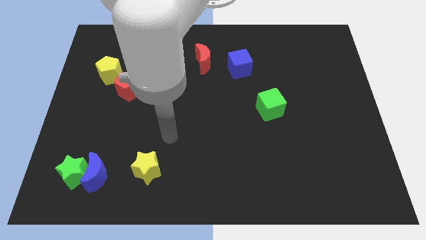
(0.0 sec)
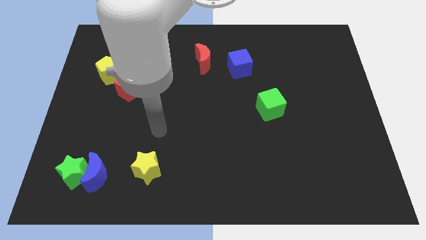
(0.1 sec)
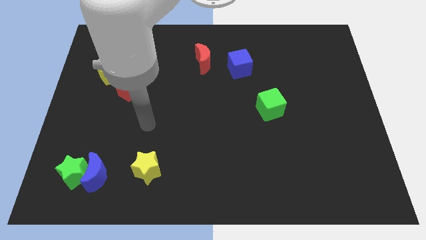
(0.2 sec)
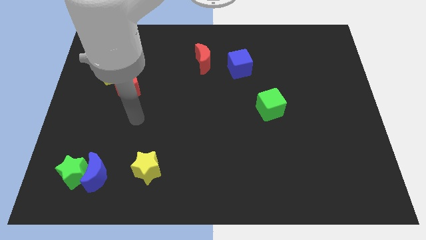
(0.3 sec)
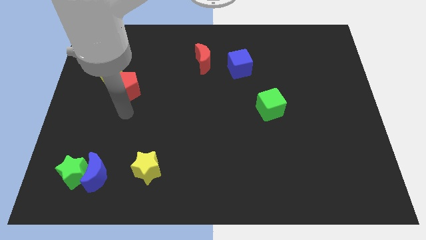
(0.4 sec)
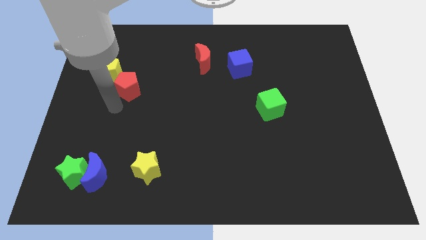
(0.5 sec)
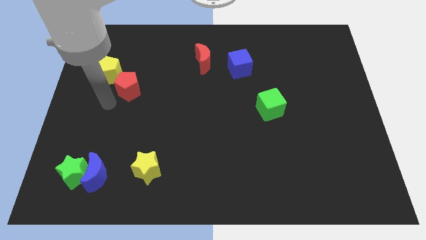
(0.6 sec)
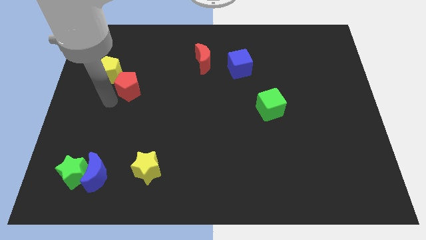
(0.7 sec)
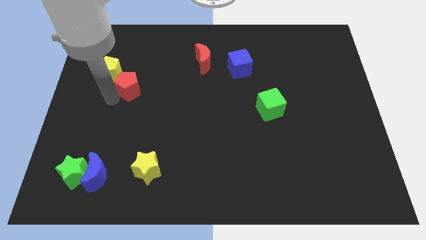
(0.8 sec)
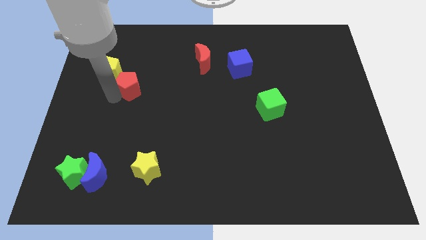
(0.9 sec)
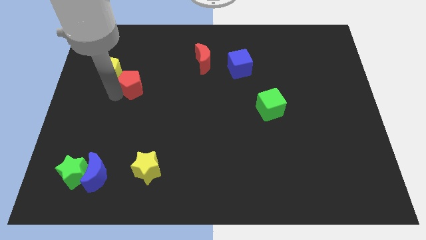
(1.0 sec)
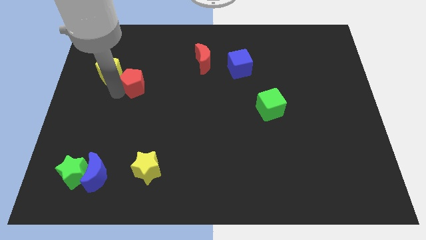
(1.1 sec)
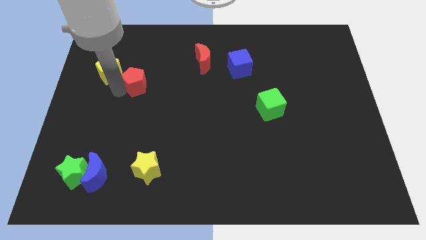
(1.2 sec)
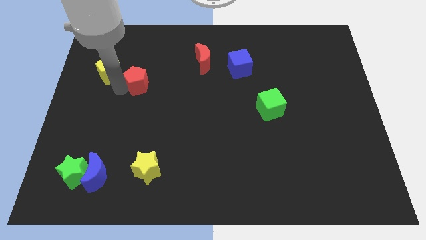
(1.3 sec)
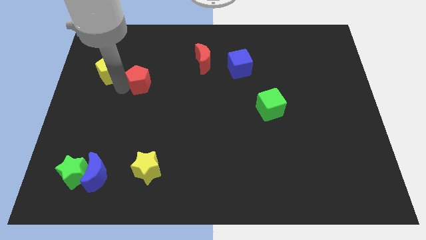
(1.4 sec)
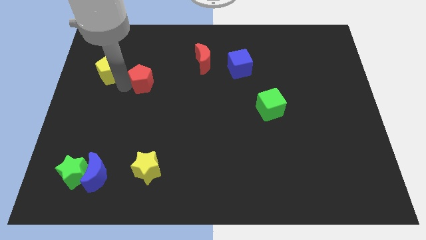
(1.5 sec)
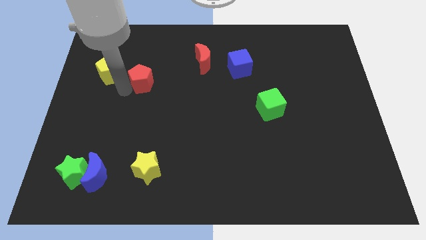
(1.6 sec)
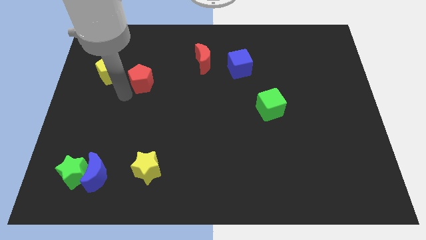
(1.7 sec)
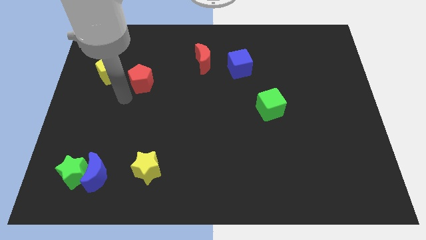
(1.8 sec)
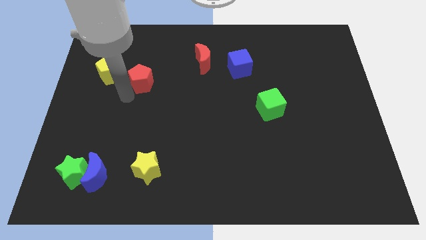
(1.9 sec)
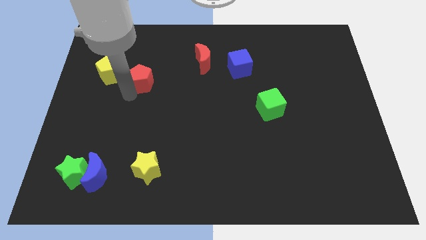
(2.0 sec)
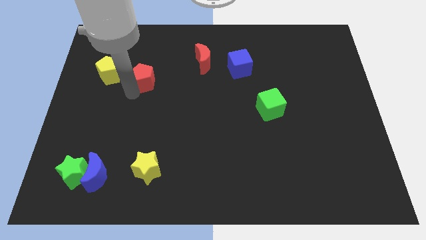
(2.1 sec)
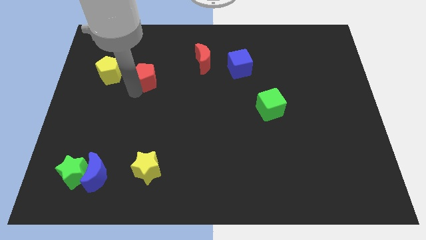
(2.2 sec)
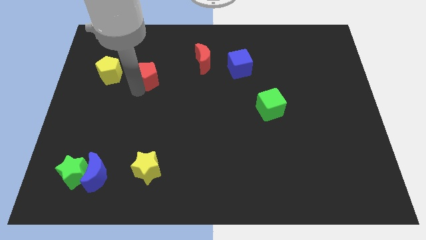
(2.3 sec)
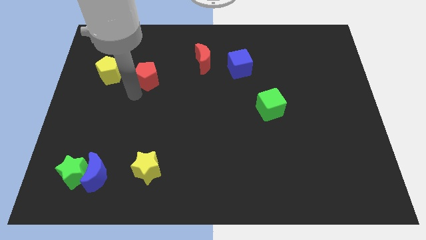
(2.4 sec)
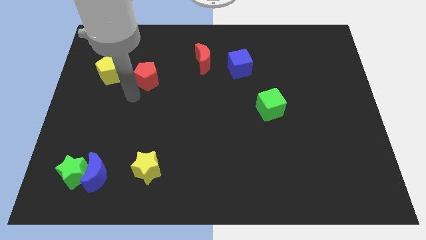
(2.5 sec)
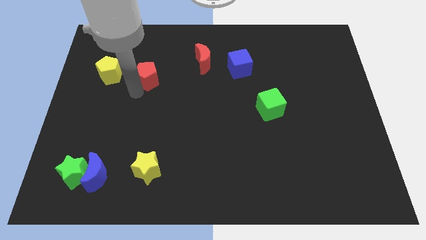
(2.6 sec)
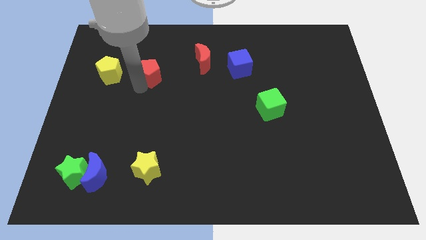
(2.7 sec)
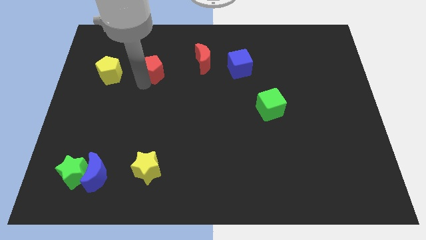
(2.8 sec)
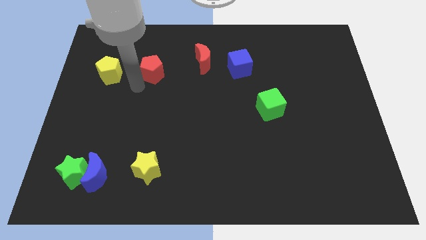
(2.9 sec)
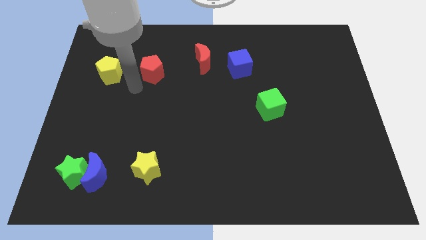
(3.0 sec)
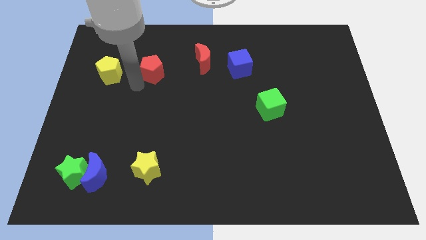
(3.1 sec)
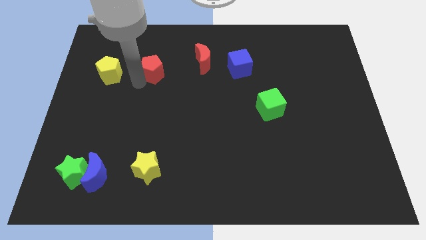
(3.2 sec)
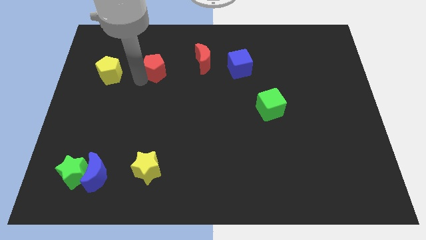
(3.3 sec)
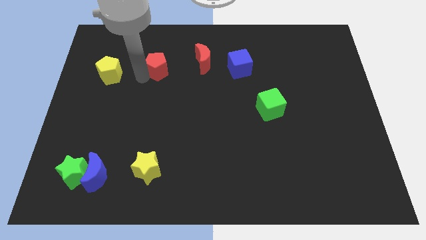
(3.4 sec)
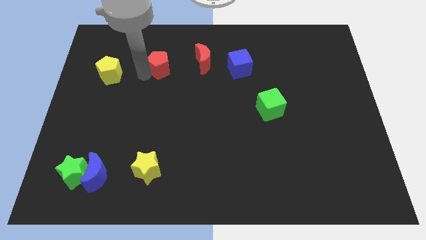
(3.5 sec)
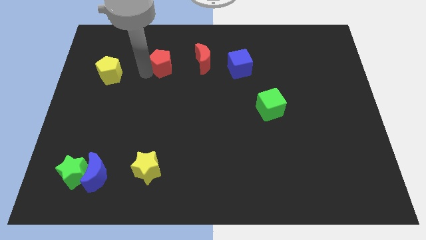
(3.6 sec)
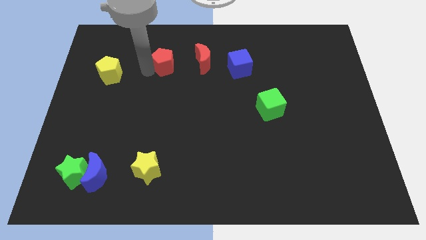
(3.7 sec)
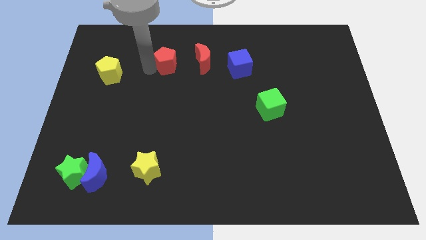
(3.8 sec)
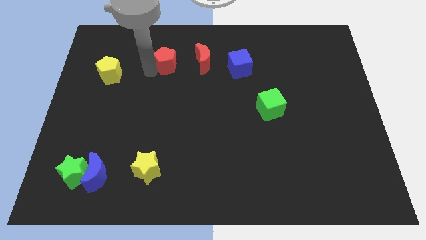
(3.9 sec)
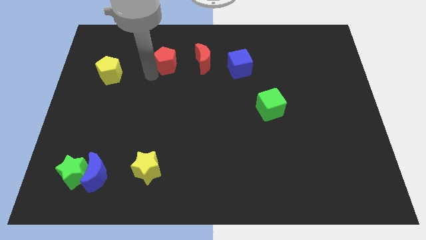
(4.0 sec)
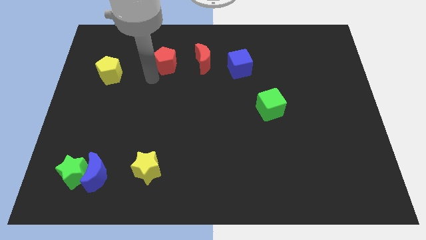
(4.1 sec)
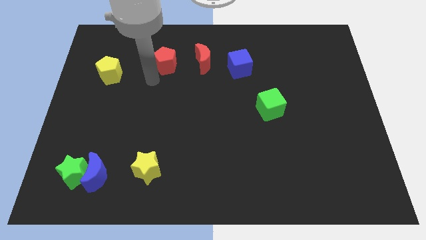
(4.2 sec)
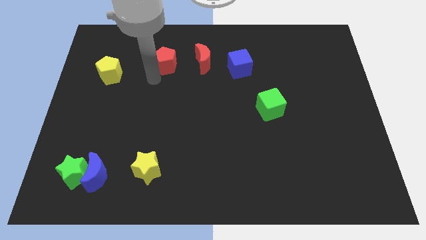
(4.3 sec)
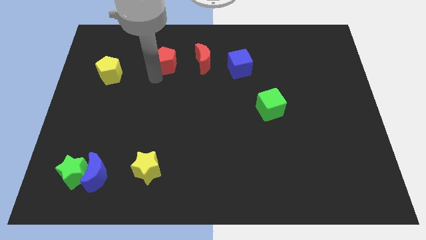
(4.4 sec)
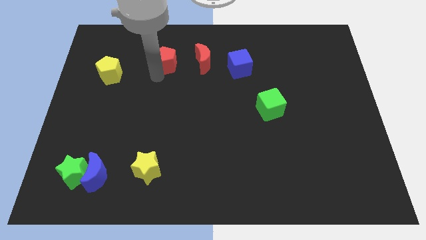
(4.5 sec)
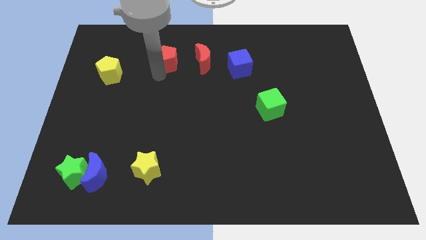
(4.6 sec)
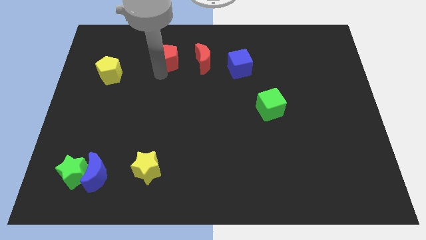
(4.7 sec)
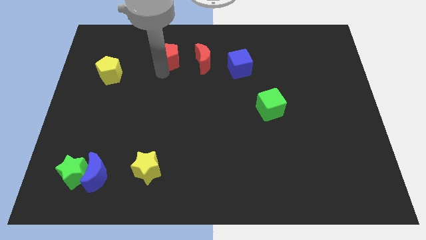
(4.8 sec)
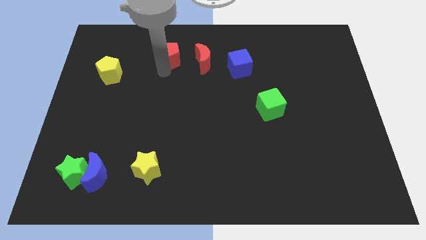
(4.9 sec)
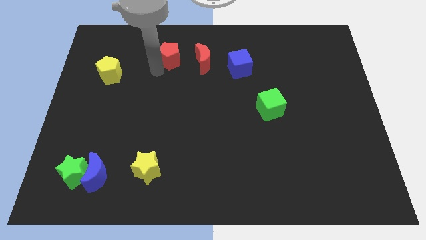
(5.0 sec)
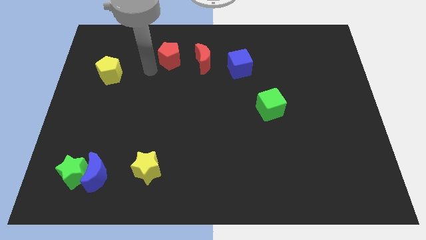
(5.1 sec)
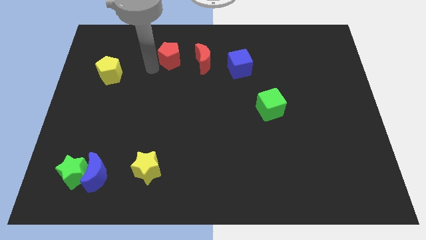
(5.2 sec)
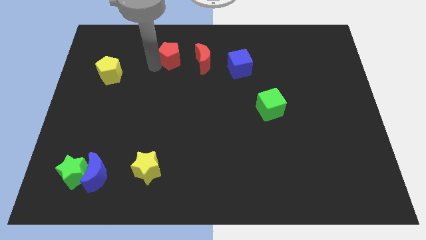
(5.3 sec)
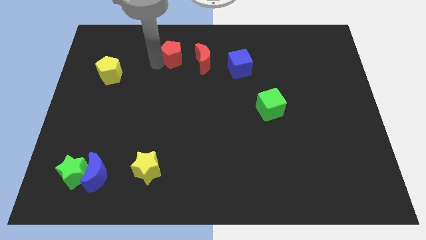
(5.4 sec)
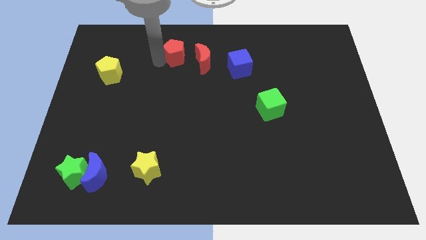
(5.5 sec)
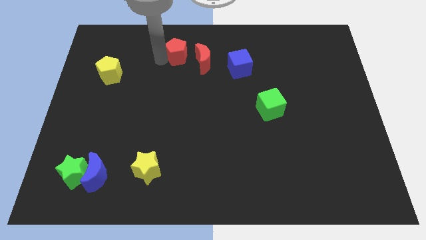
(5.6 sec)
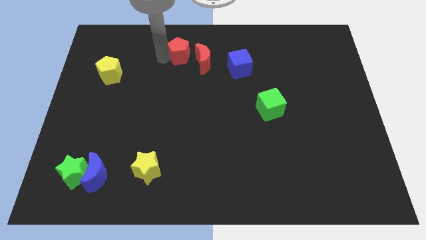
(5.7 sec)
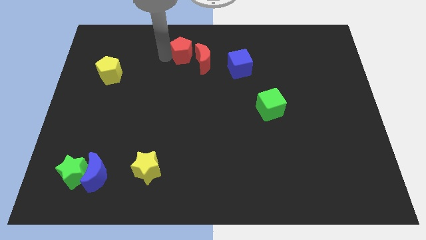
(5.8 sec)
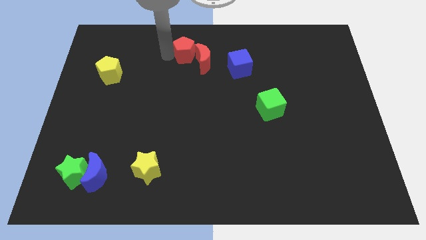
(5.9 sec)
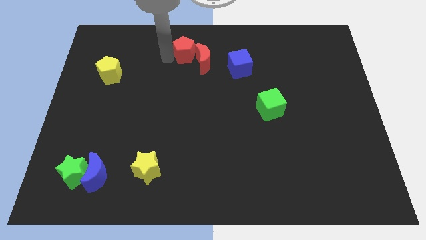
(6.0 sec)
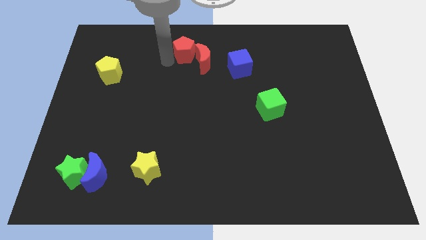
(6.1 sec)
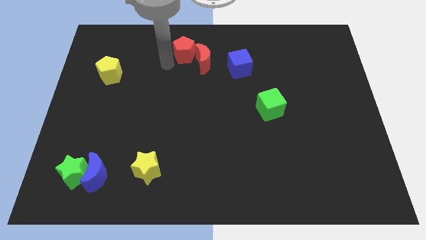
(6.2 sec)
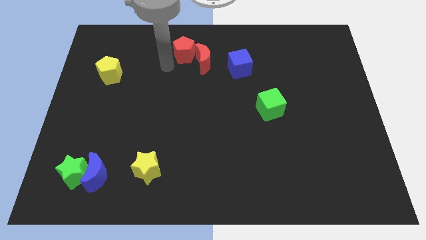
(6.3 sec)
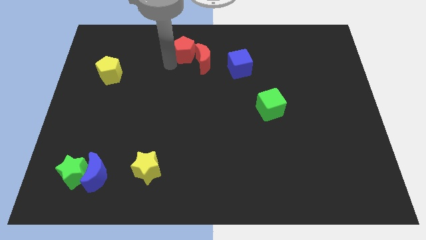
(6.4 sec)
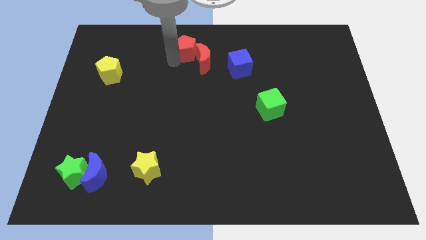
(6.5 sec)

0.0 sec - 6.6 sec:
slide the red pentagon to the top

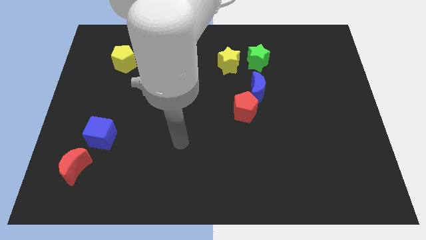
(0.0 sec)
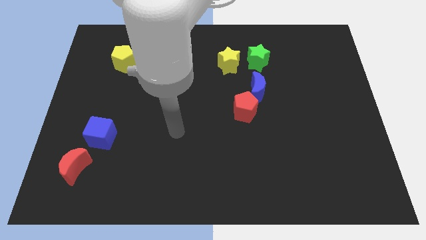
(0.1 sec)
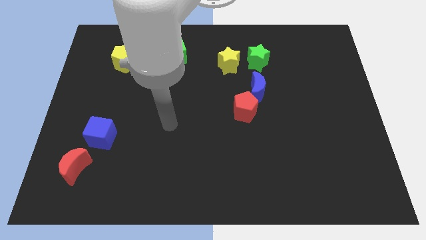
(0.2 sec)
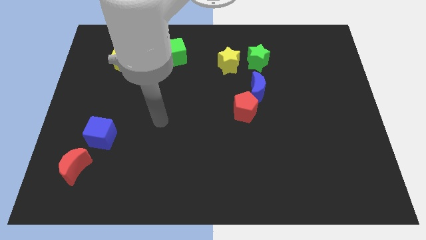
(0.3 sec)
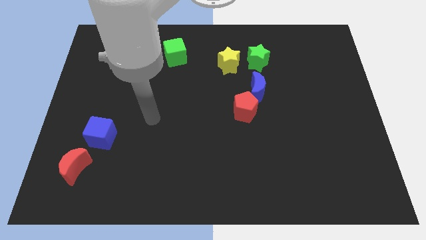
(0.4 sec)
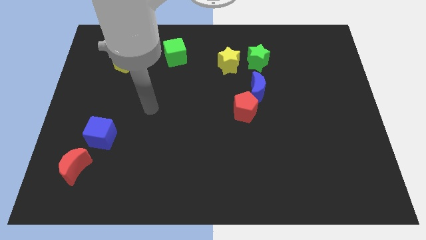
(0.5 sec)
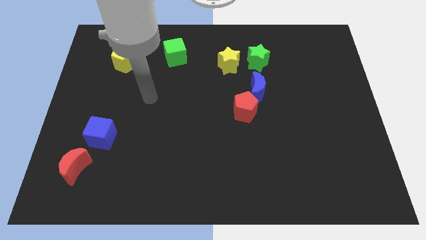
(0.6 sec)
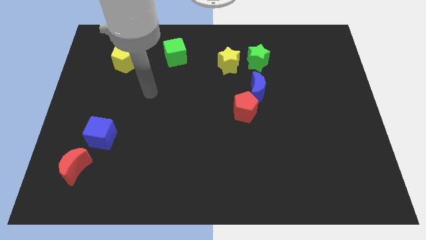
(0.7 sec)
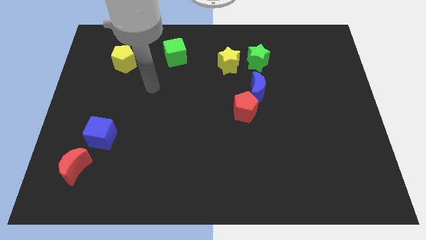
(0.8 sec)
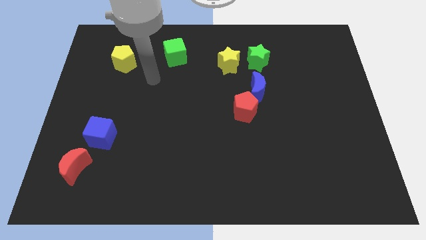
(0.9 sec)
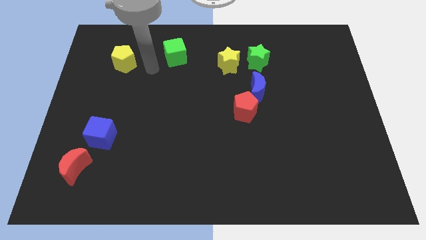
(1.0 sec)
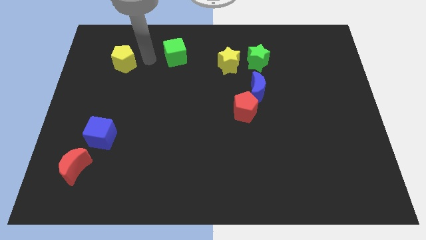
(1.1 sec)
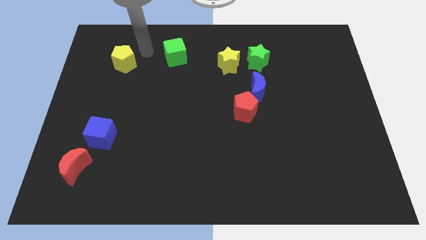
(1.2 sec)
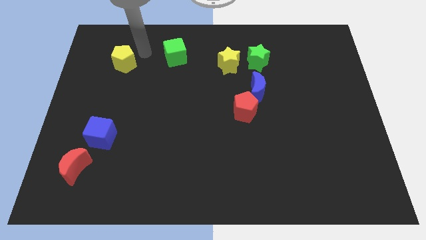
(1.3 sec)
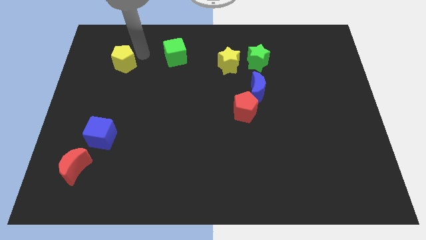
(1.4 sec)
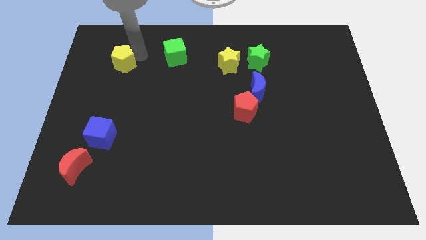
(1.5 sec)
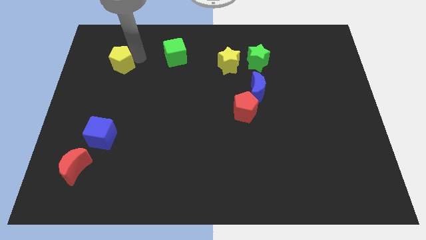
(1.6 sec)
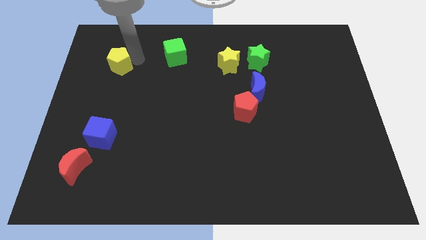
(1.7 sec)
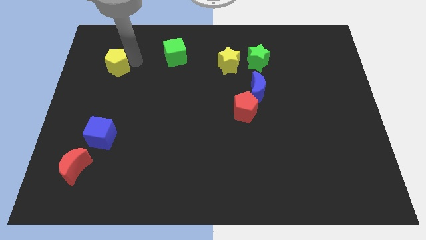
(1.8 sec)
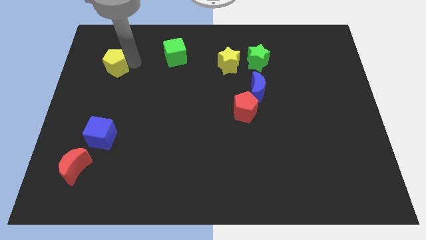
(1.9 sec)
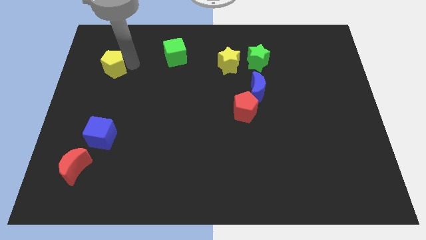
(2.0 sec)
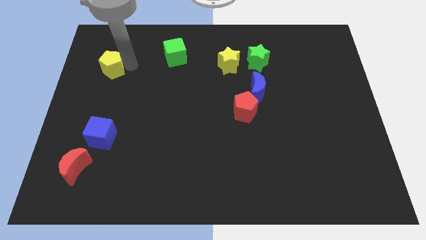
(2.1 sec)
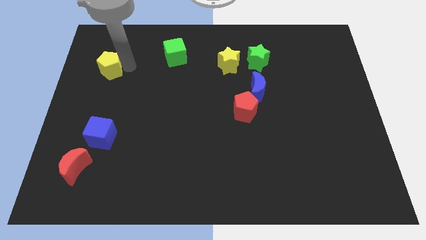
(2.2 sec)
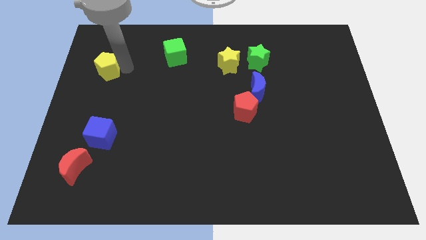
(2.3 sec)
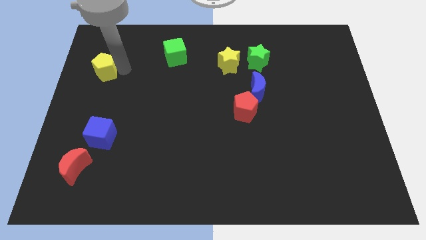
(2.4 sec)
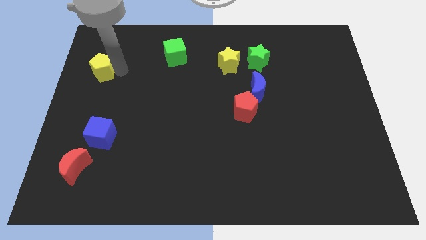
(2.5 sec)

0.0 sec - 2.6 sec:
move the yellow pentagon to the left side
